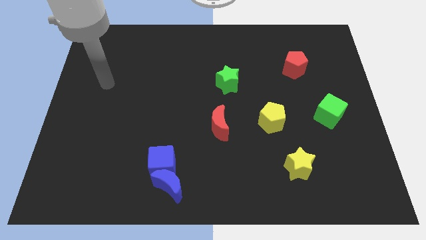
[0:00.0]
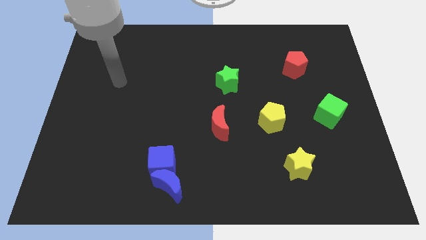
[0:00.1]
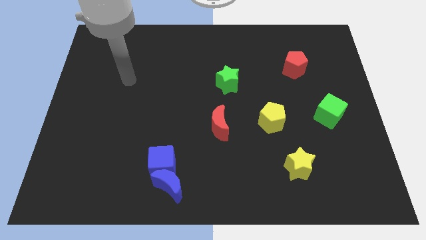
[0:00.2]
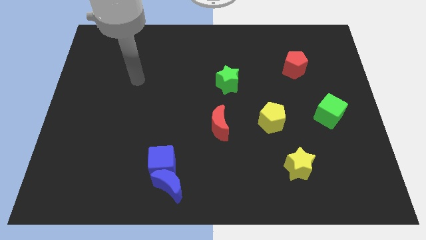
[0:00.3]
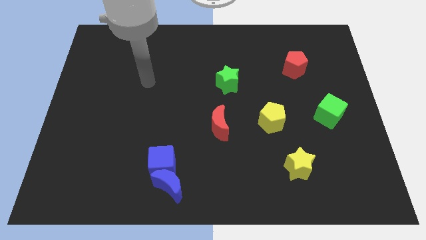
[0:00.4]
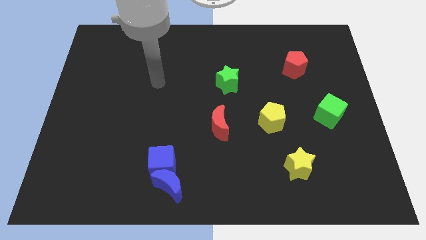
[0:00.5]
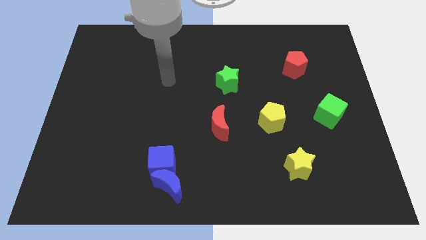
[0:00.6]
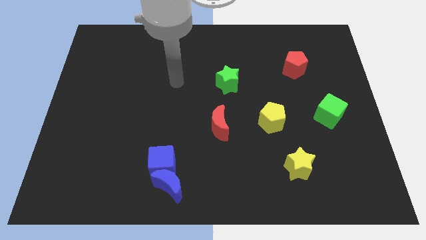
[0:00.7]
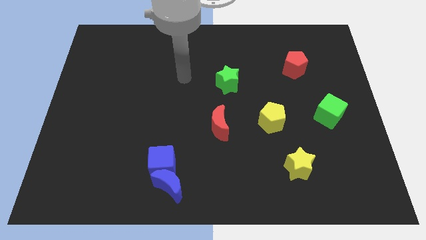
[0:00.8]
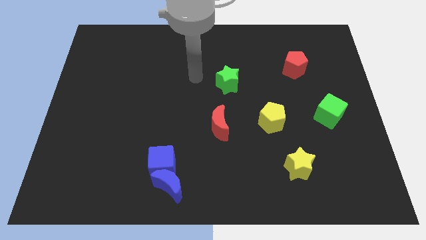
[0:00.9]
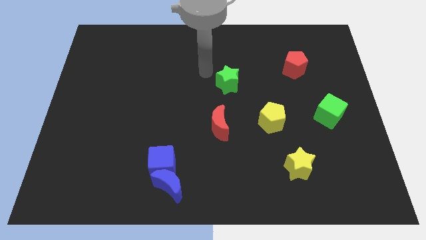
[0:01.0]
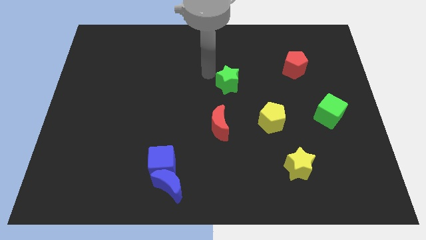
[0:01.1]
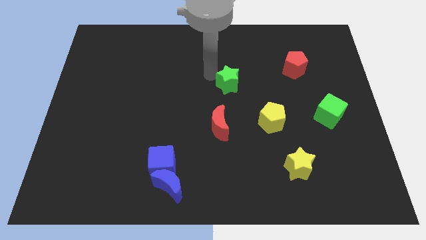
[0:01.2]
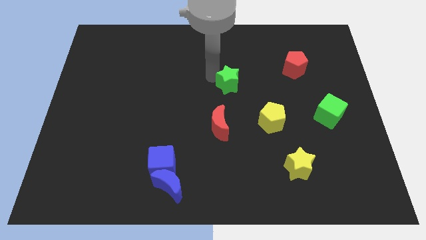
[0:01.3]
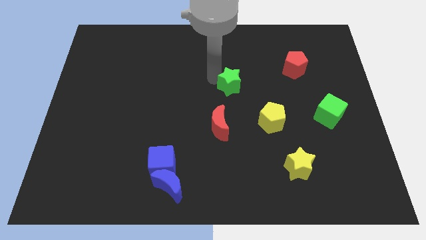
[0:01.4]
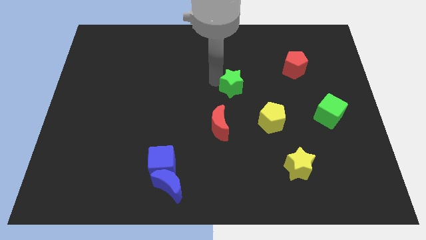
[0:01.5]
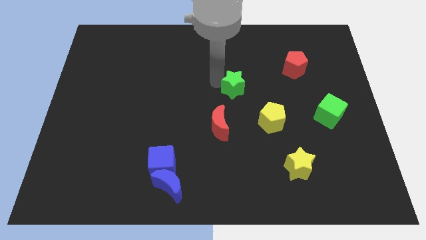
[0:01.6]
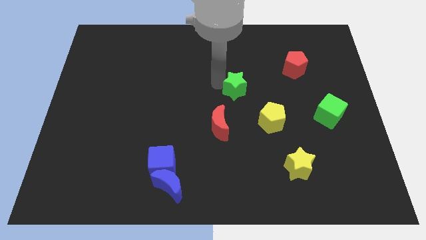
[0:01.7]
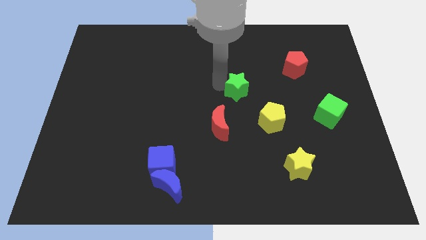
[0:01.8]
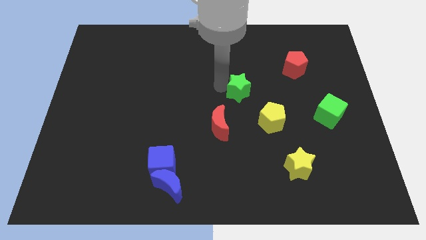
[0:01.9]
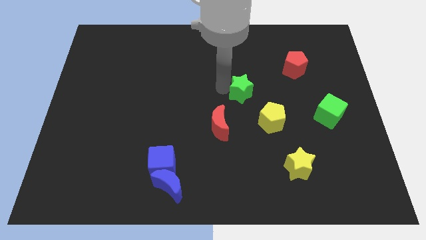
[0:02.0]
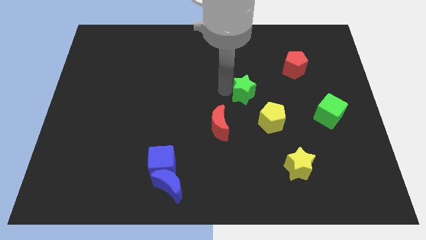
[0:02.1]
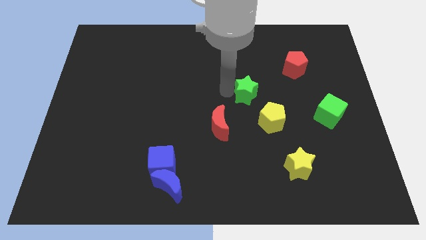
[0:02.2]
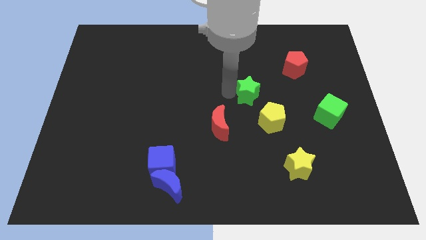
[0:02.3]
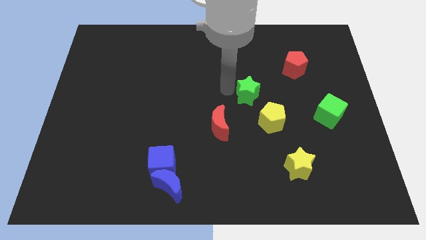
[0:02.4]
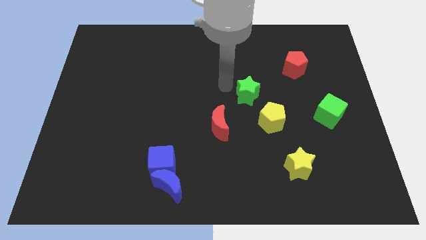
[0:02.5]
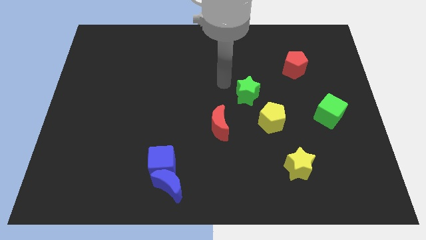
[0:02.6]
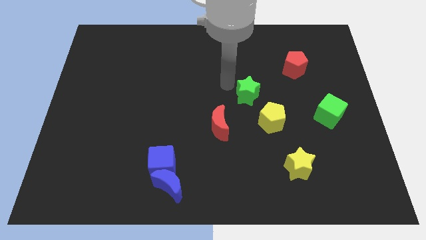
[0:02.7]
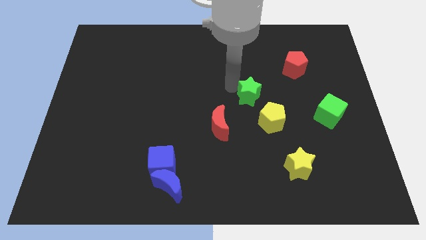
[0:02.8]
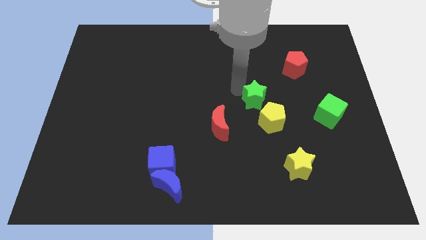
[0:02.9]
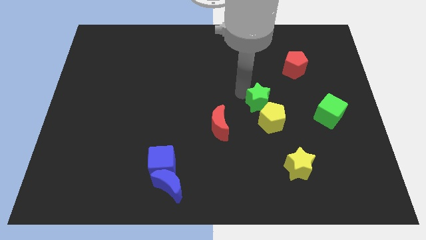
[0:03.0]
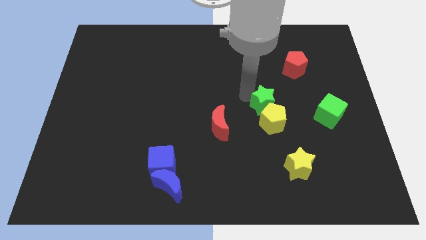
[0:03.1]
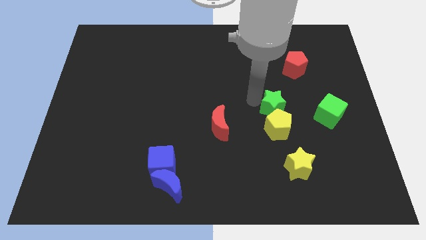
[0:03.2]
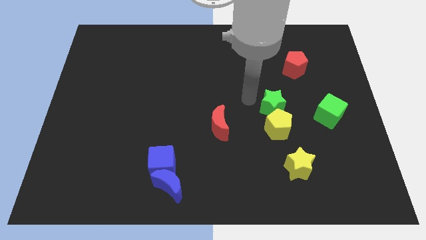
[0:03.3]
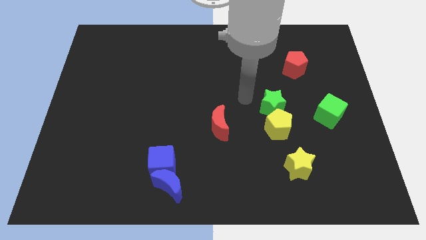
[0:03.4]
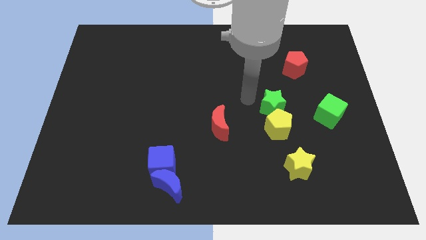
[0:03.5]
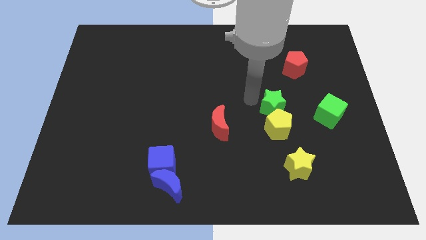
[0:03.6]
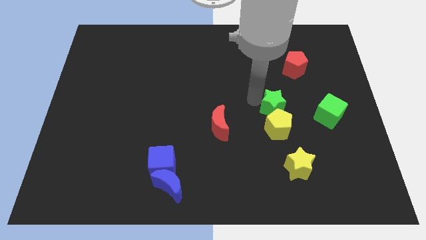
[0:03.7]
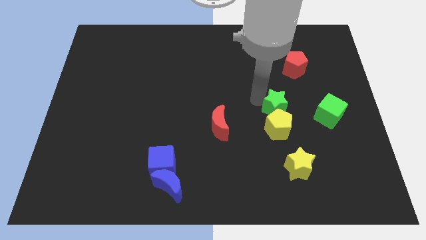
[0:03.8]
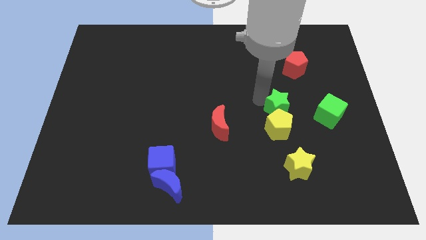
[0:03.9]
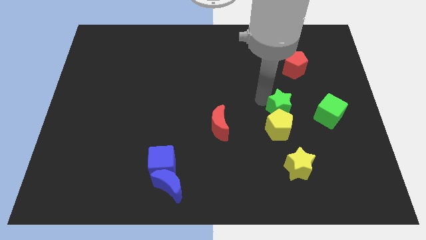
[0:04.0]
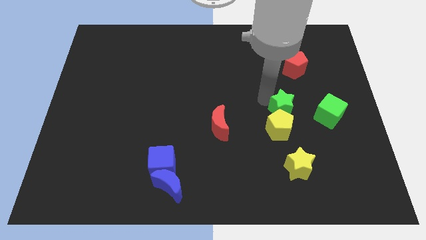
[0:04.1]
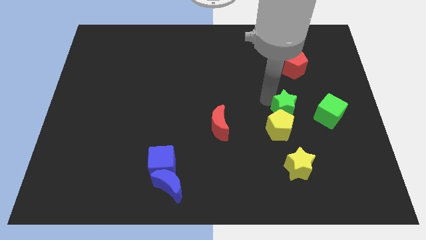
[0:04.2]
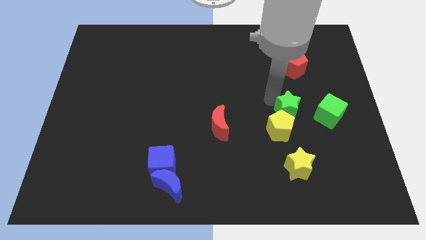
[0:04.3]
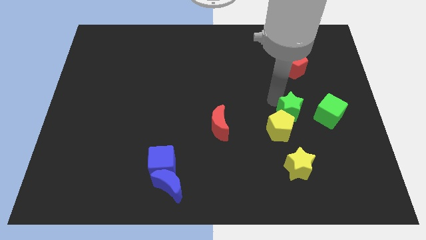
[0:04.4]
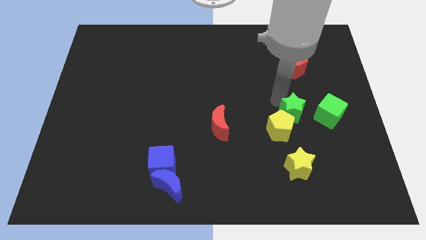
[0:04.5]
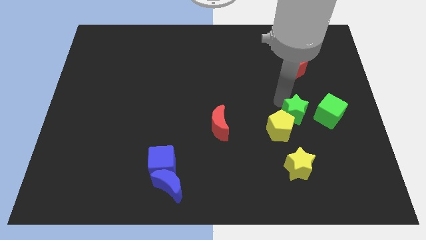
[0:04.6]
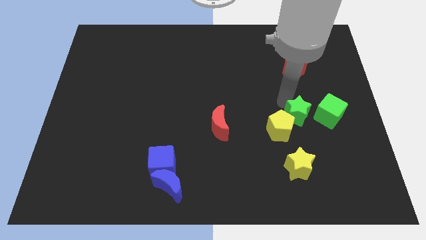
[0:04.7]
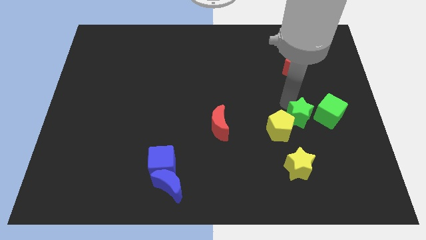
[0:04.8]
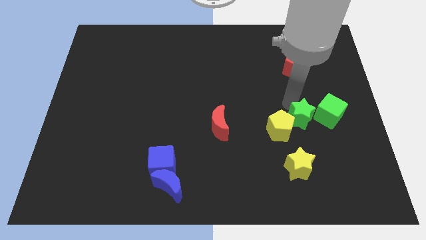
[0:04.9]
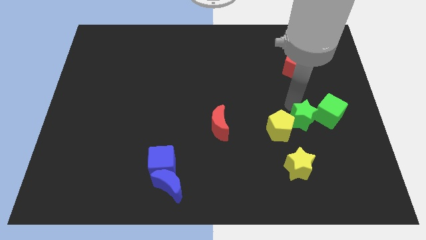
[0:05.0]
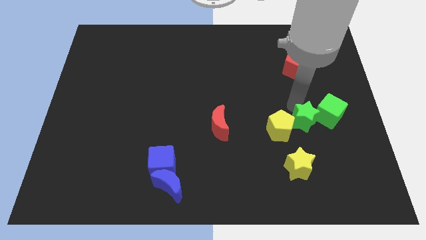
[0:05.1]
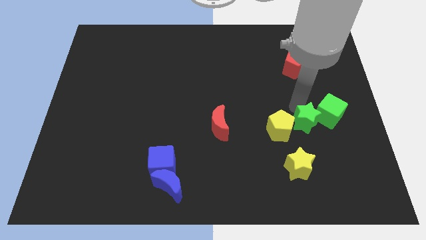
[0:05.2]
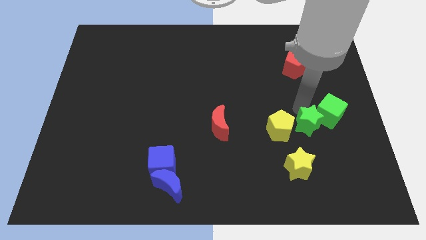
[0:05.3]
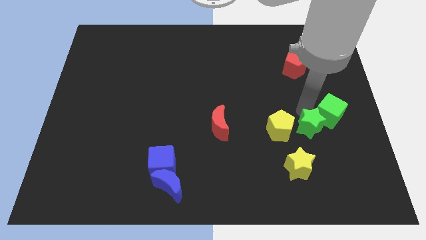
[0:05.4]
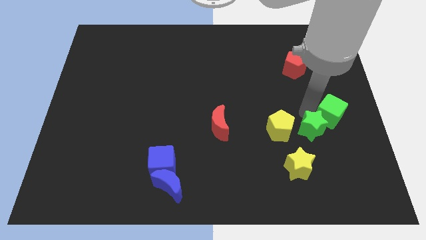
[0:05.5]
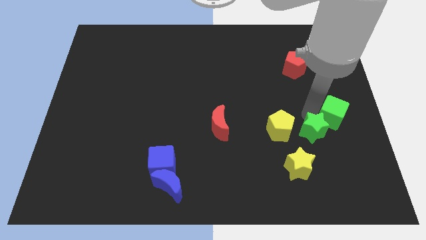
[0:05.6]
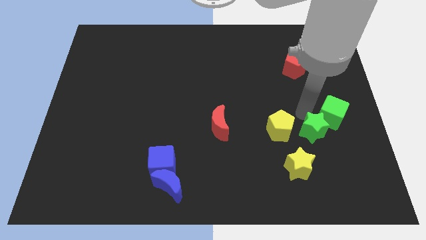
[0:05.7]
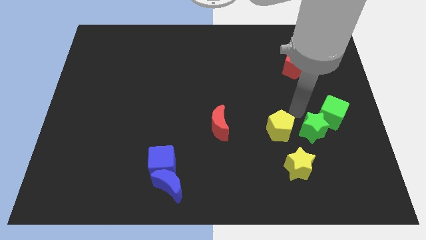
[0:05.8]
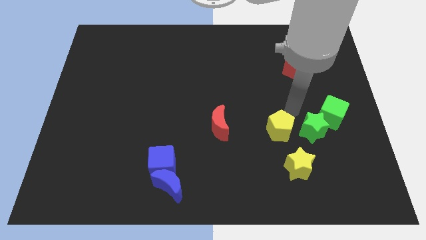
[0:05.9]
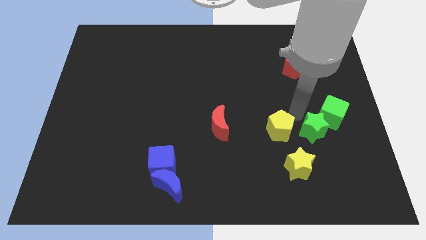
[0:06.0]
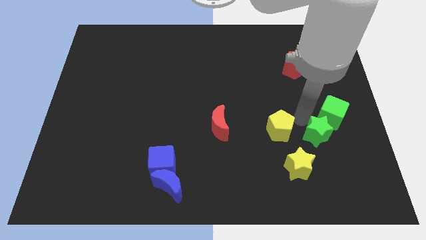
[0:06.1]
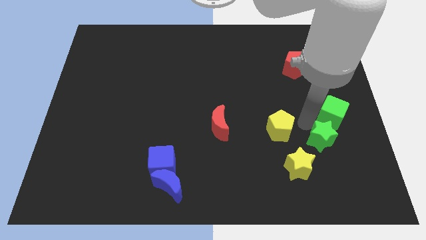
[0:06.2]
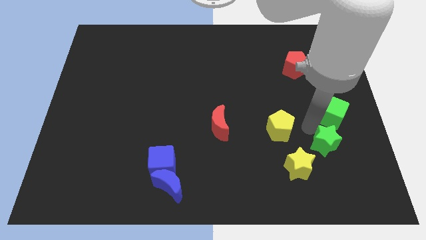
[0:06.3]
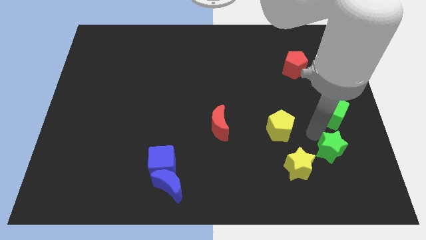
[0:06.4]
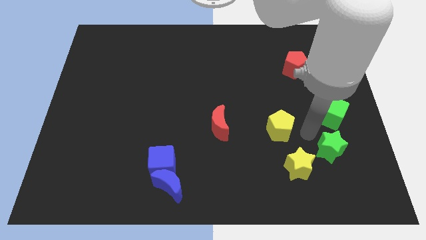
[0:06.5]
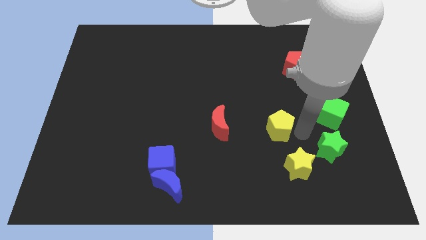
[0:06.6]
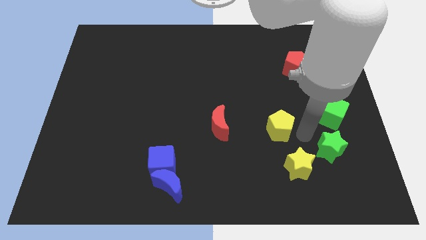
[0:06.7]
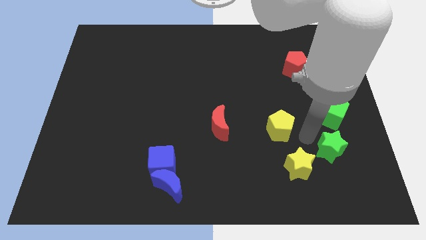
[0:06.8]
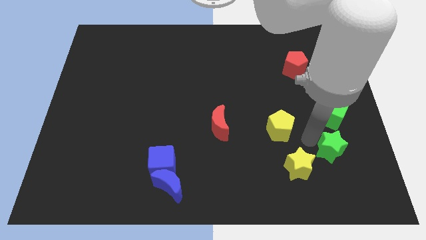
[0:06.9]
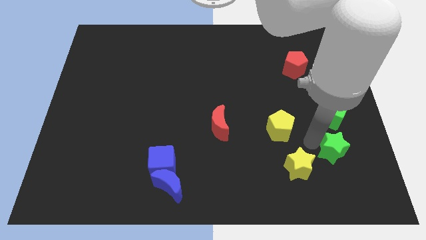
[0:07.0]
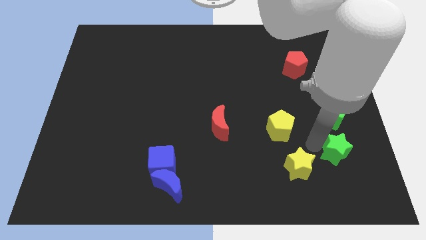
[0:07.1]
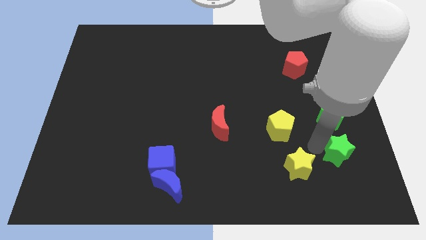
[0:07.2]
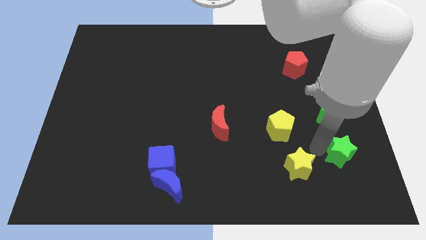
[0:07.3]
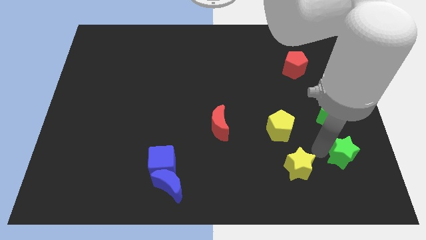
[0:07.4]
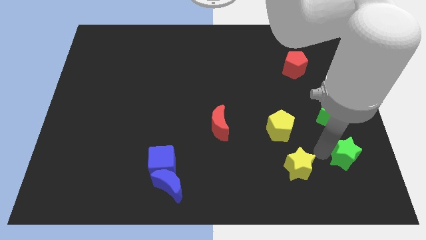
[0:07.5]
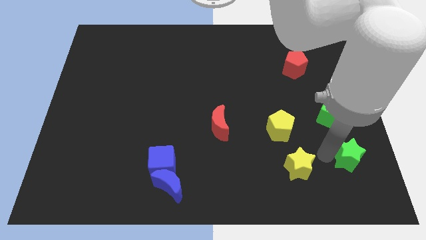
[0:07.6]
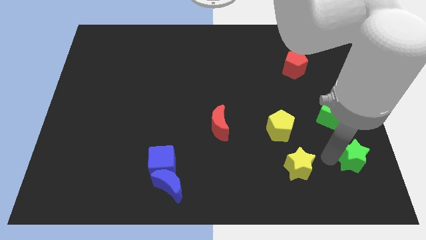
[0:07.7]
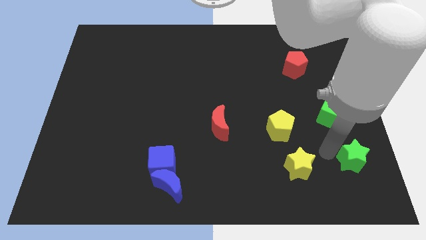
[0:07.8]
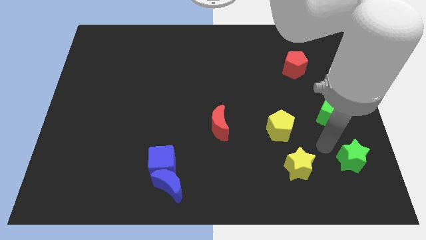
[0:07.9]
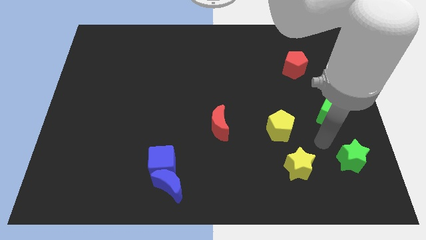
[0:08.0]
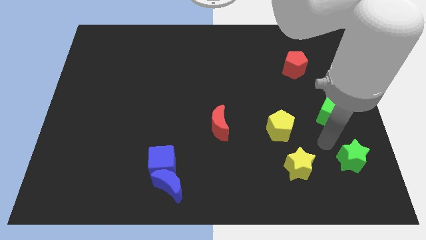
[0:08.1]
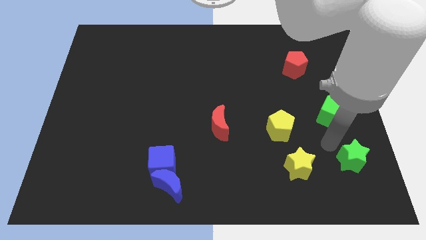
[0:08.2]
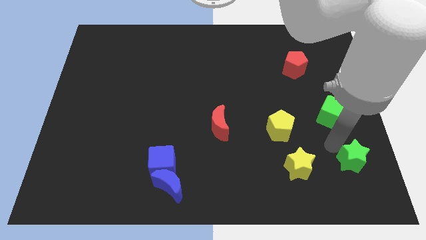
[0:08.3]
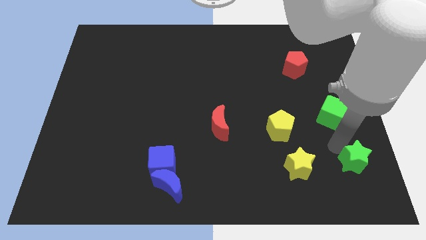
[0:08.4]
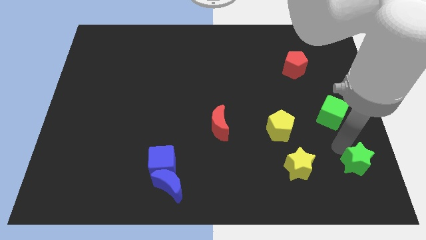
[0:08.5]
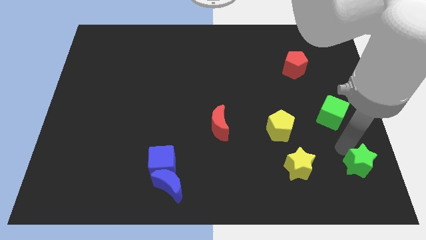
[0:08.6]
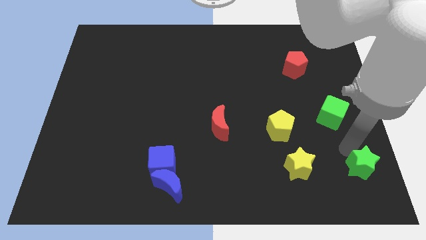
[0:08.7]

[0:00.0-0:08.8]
move the green star to the bottom right corner
